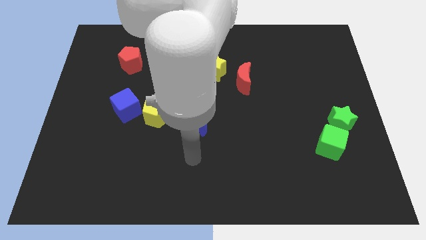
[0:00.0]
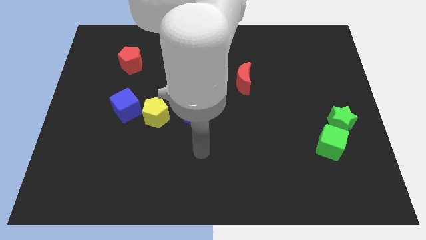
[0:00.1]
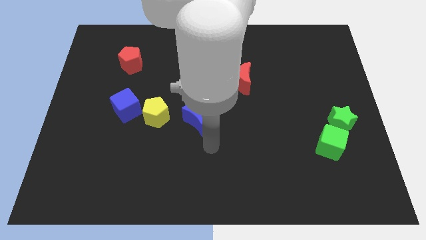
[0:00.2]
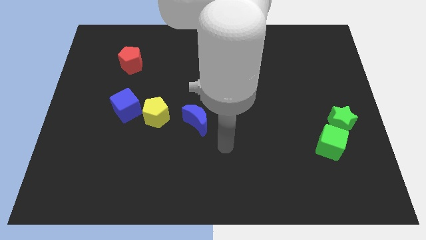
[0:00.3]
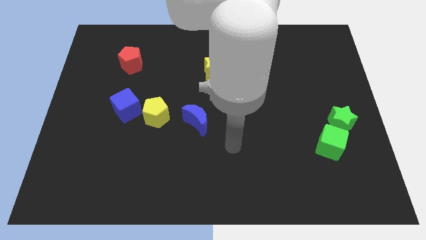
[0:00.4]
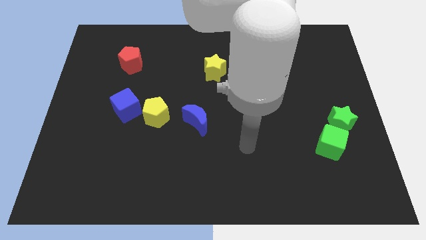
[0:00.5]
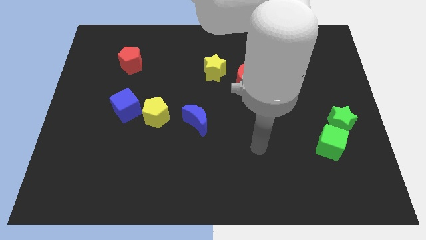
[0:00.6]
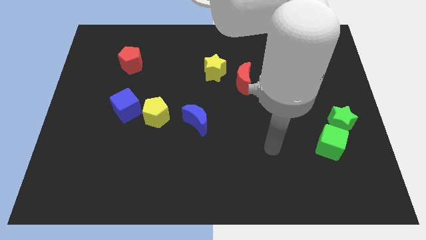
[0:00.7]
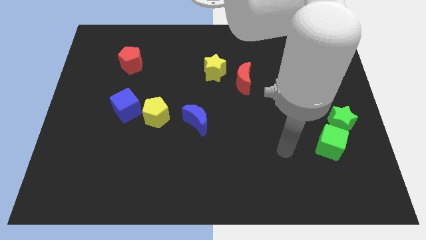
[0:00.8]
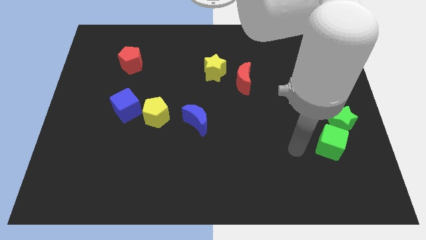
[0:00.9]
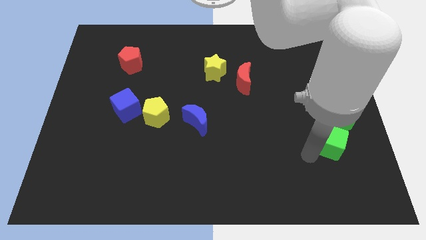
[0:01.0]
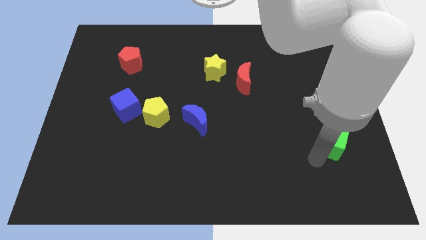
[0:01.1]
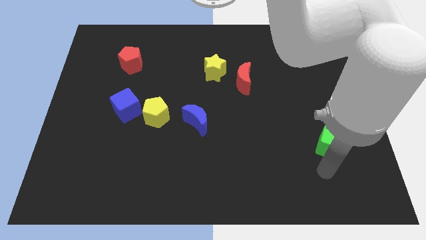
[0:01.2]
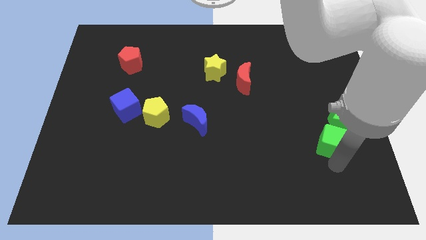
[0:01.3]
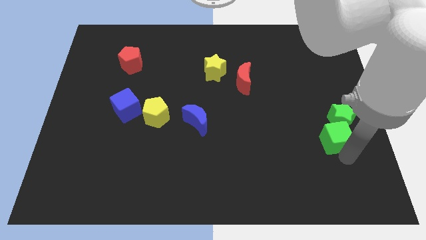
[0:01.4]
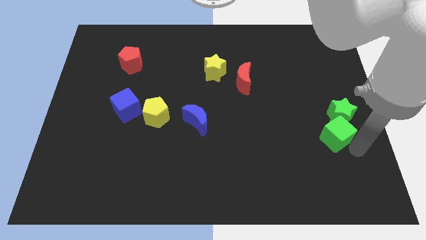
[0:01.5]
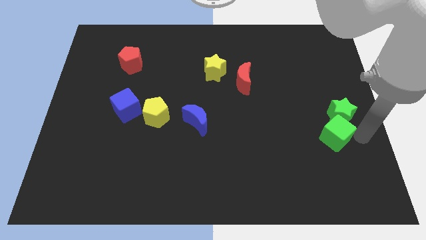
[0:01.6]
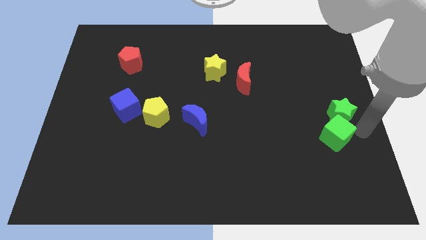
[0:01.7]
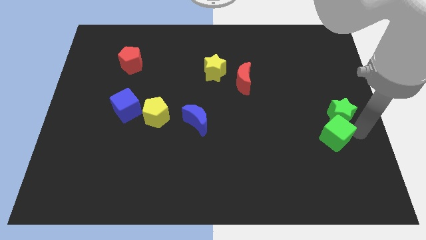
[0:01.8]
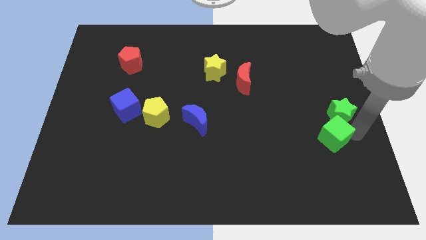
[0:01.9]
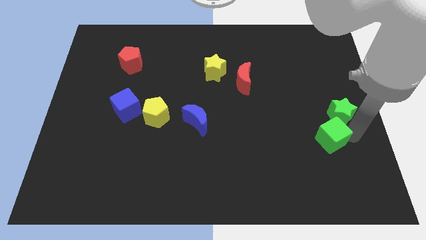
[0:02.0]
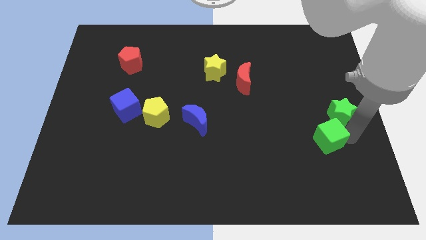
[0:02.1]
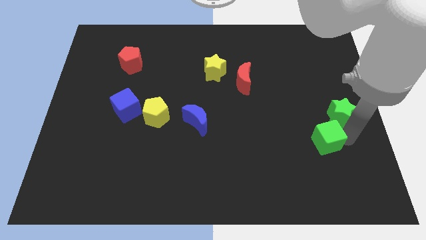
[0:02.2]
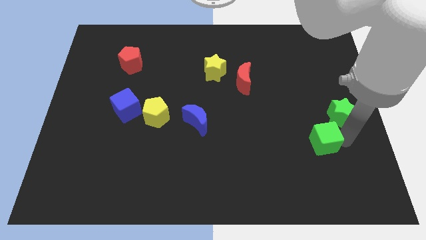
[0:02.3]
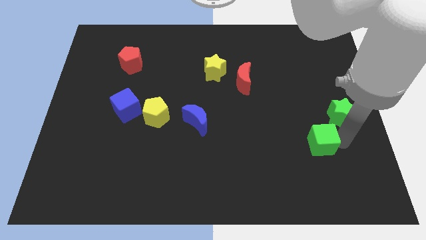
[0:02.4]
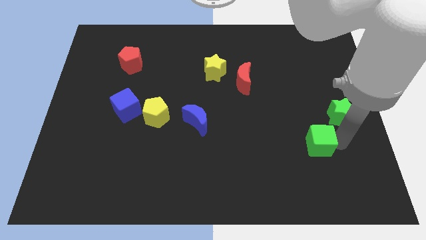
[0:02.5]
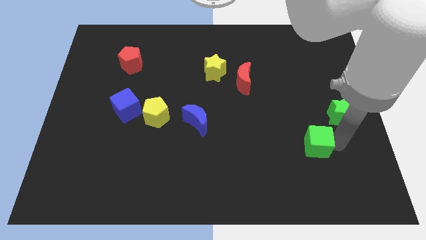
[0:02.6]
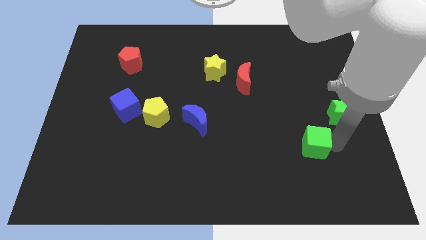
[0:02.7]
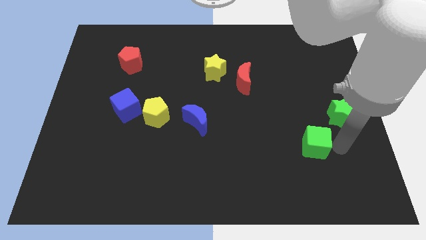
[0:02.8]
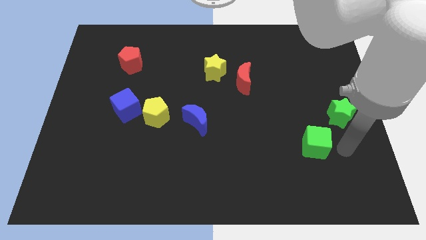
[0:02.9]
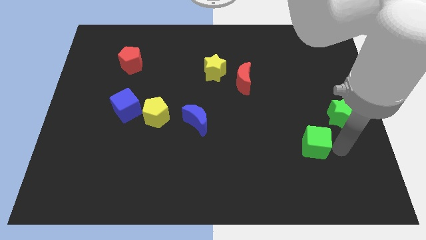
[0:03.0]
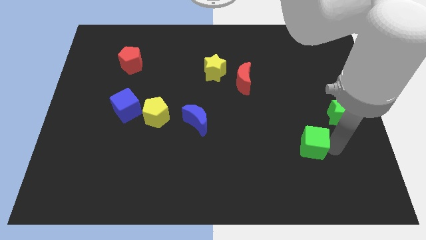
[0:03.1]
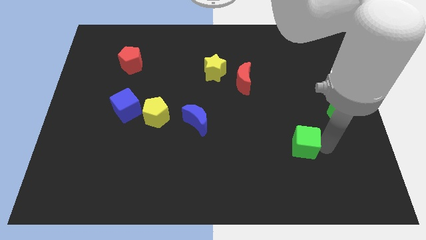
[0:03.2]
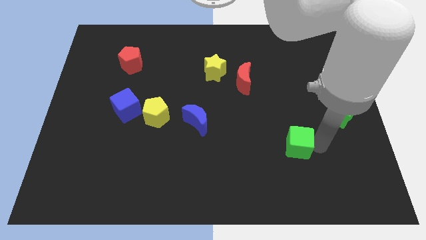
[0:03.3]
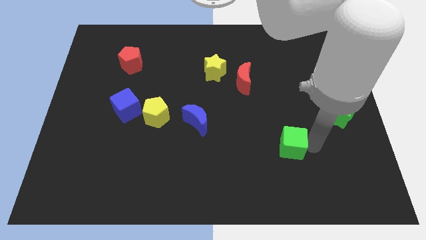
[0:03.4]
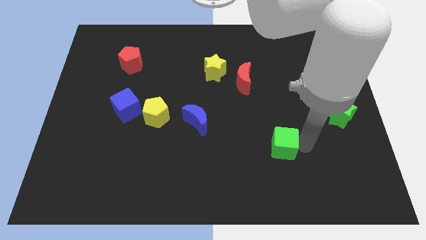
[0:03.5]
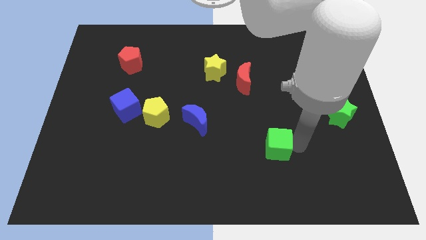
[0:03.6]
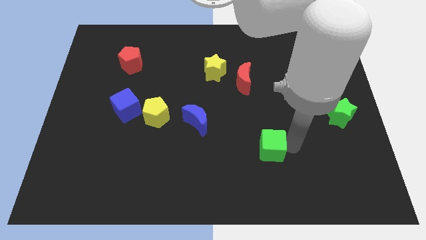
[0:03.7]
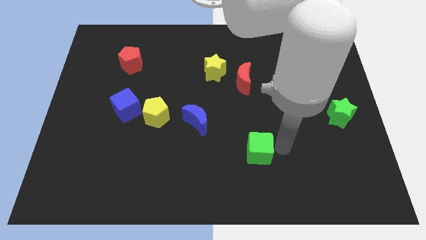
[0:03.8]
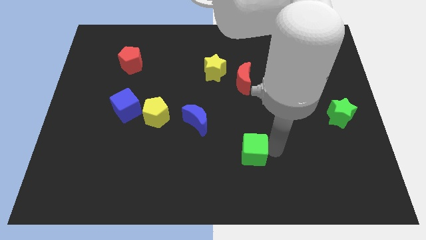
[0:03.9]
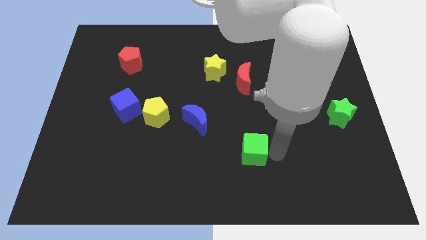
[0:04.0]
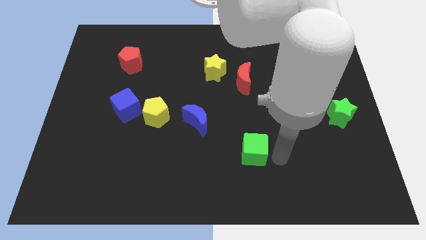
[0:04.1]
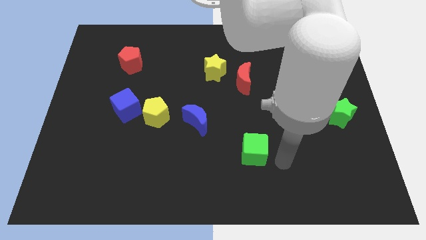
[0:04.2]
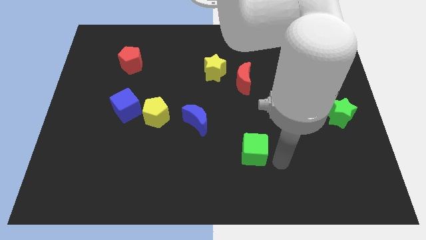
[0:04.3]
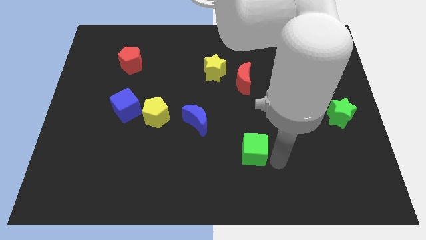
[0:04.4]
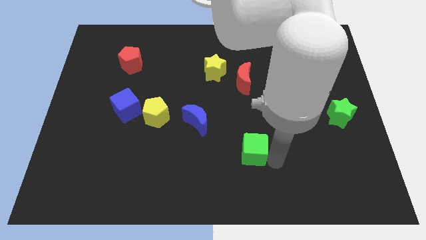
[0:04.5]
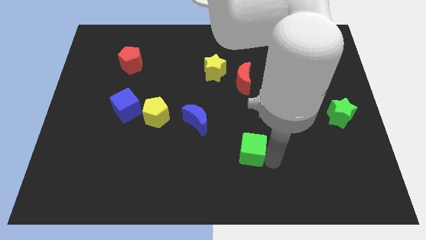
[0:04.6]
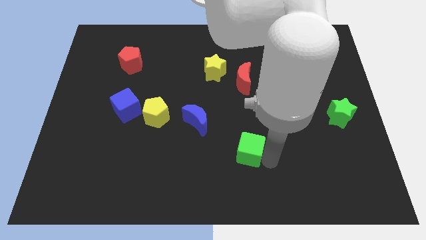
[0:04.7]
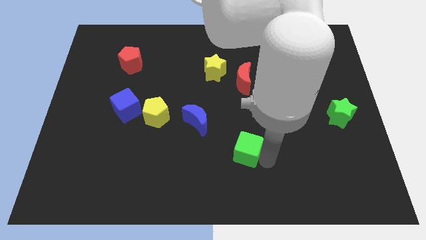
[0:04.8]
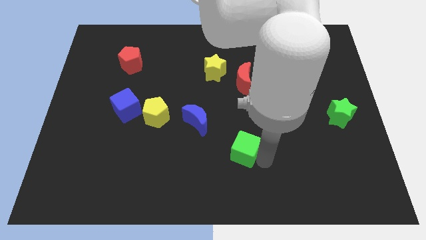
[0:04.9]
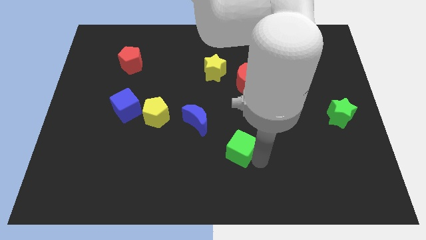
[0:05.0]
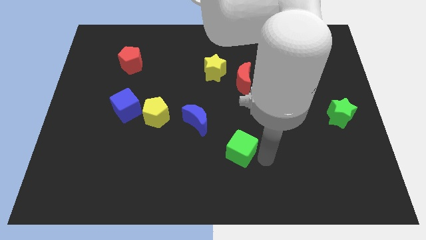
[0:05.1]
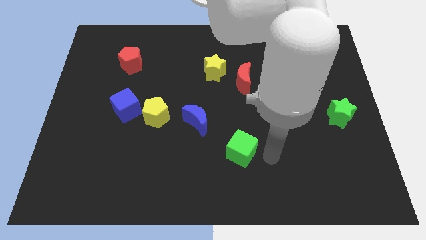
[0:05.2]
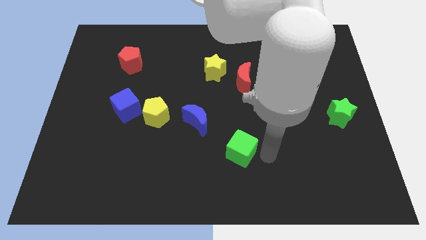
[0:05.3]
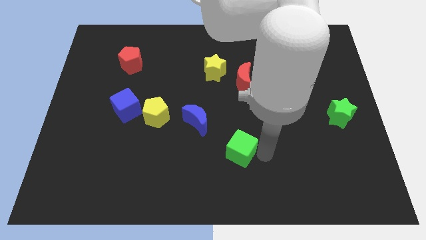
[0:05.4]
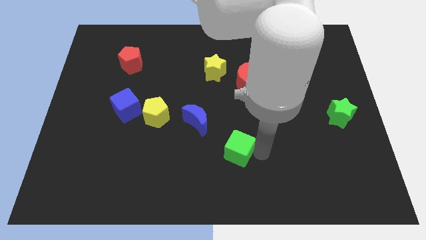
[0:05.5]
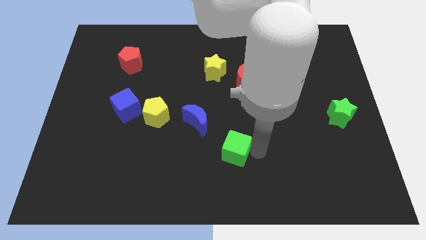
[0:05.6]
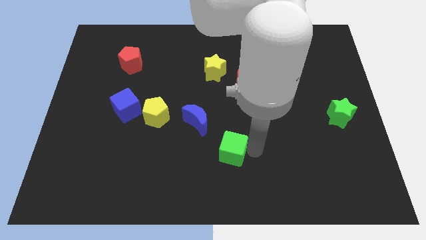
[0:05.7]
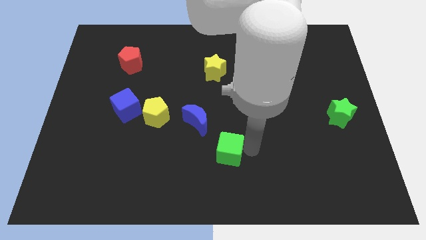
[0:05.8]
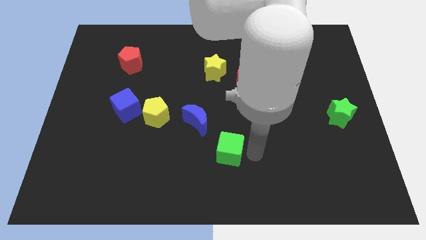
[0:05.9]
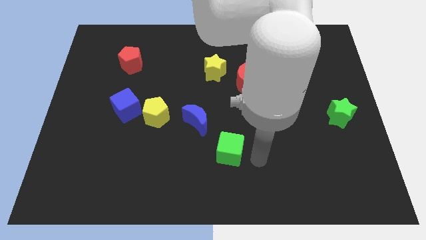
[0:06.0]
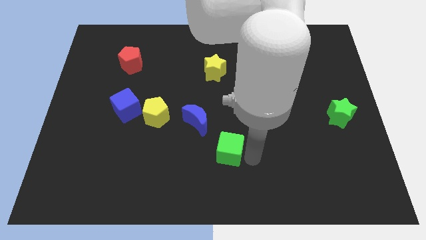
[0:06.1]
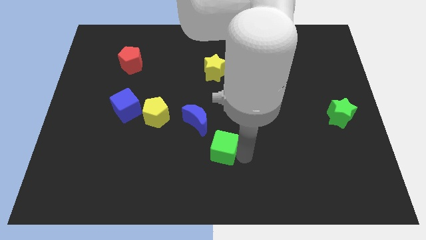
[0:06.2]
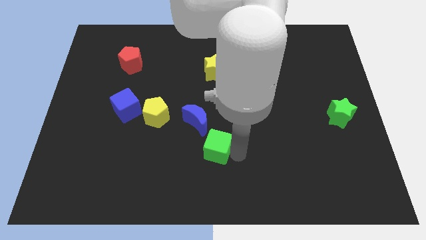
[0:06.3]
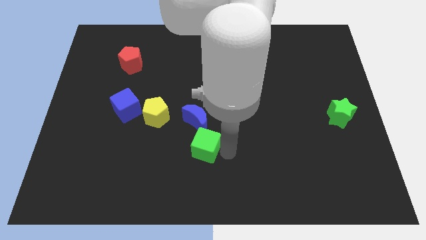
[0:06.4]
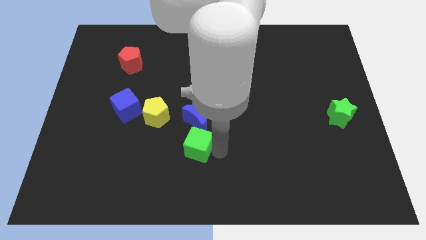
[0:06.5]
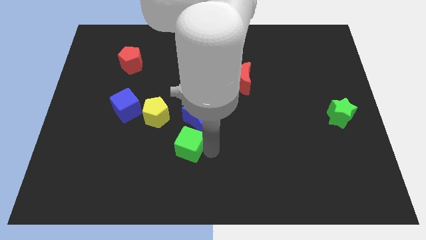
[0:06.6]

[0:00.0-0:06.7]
slide the green cube to the bottom right of the yellow pentagon
